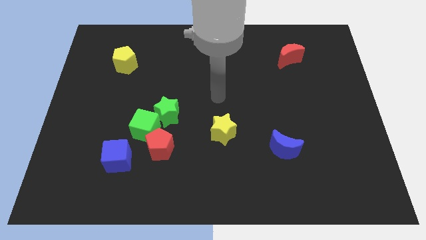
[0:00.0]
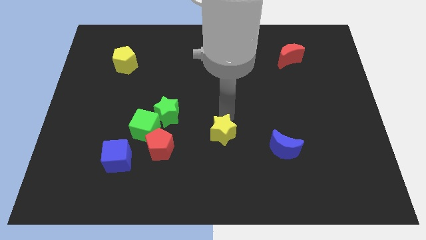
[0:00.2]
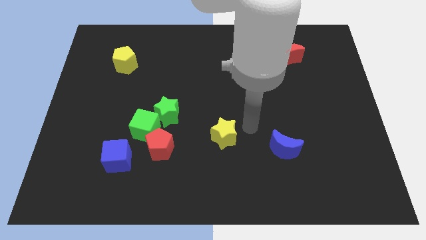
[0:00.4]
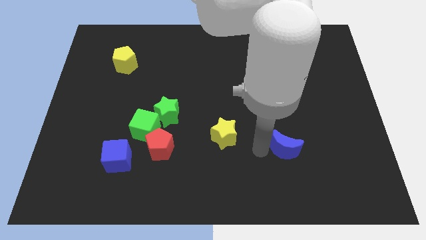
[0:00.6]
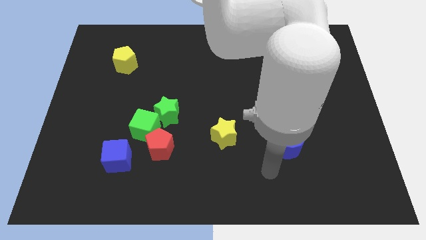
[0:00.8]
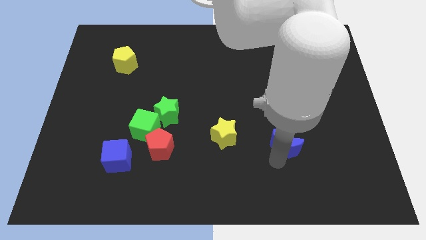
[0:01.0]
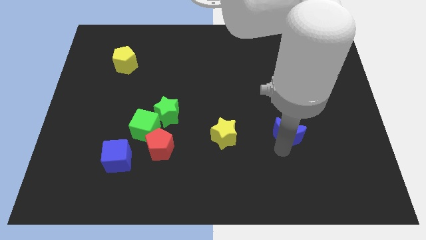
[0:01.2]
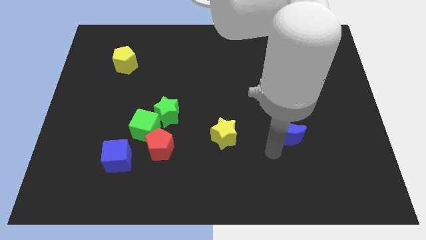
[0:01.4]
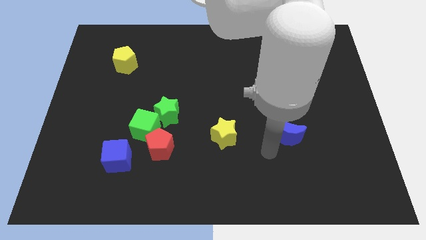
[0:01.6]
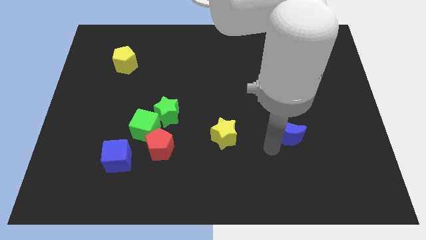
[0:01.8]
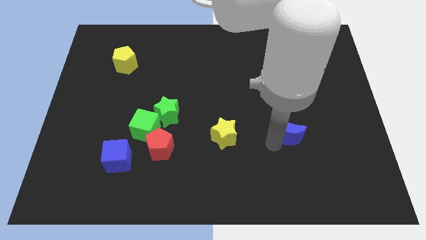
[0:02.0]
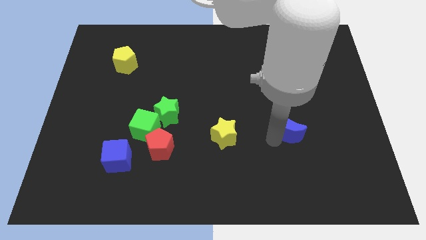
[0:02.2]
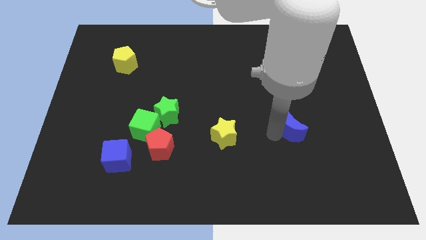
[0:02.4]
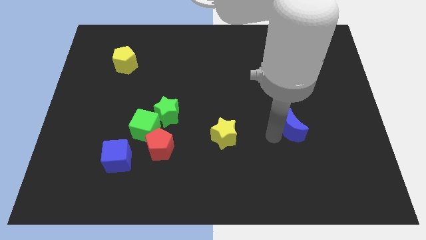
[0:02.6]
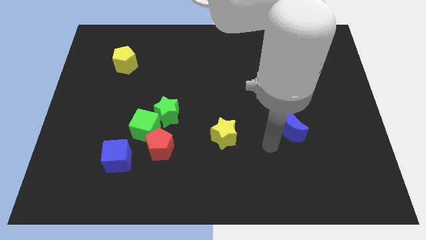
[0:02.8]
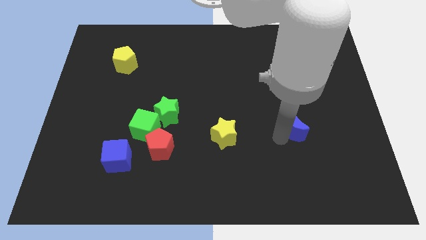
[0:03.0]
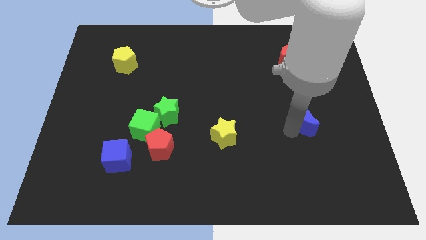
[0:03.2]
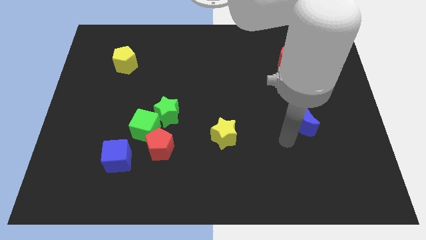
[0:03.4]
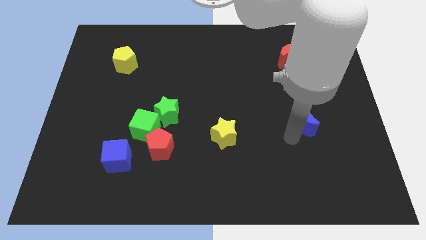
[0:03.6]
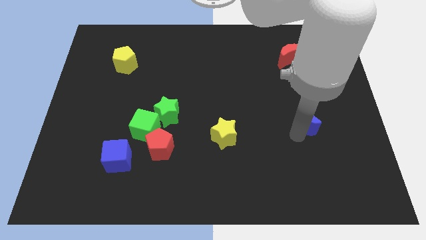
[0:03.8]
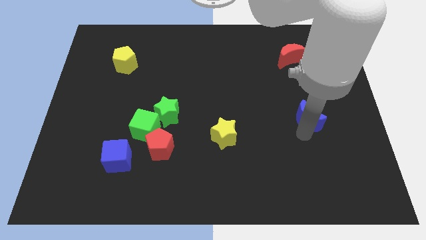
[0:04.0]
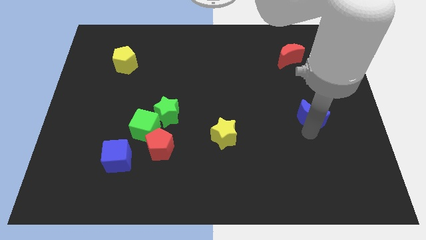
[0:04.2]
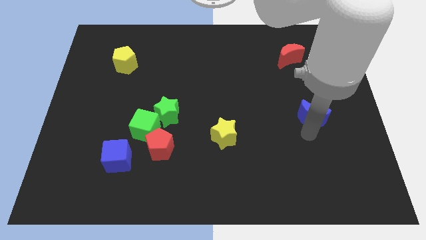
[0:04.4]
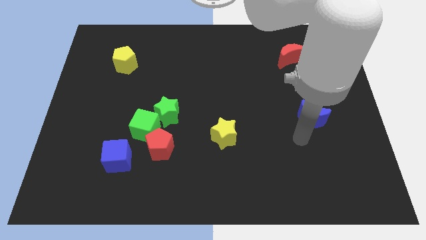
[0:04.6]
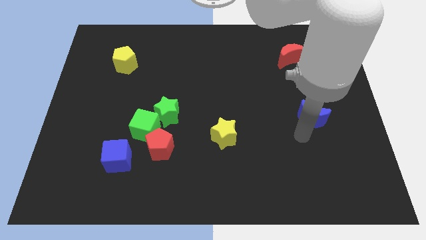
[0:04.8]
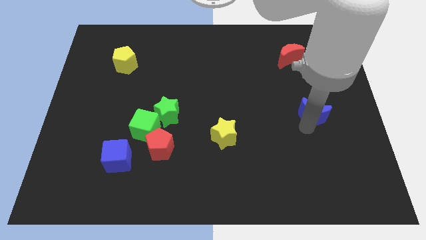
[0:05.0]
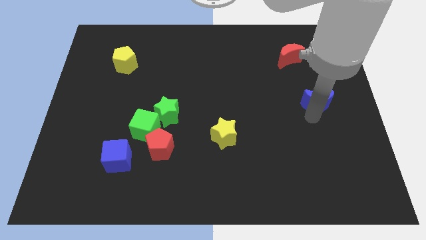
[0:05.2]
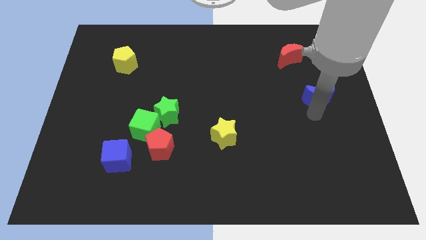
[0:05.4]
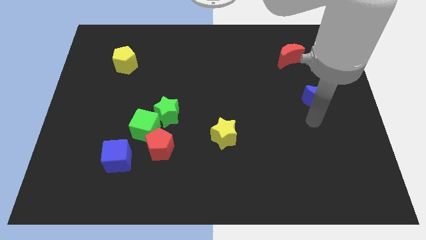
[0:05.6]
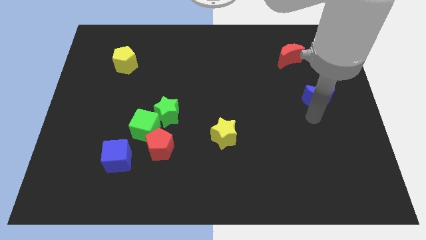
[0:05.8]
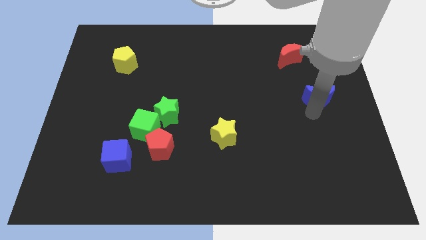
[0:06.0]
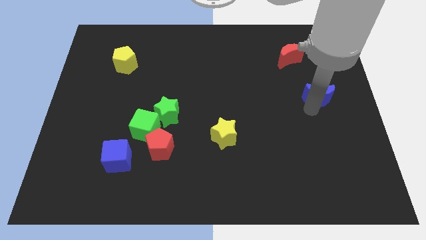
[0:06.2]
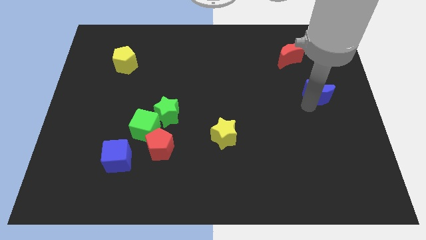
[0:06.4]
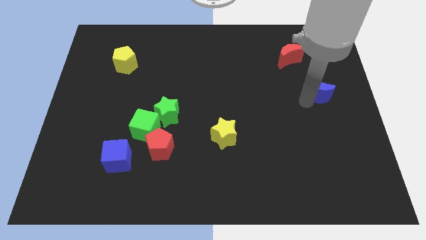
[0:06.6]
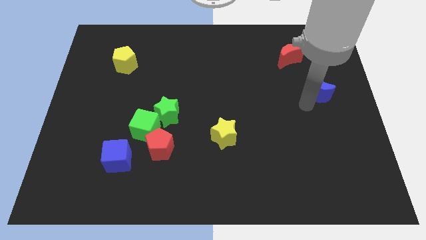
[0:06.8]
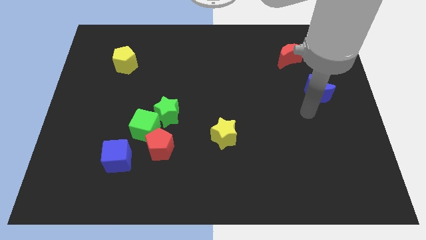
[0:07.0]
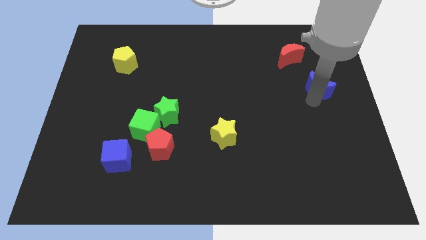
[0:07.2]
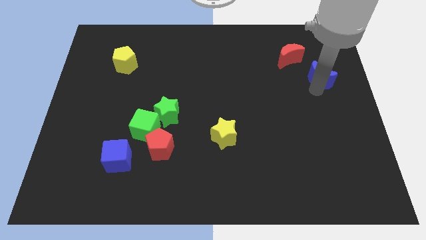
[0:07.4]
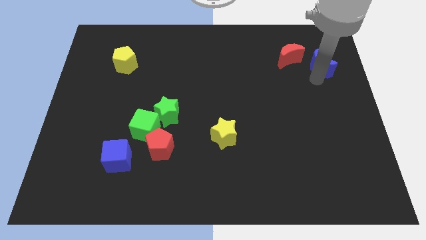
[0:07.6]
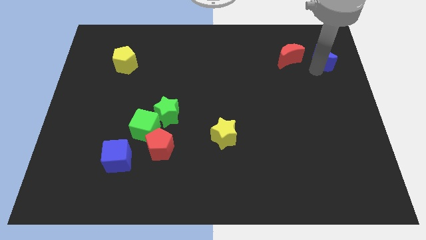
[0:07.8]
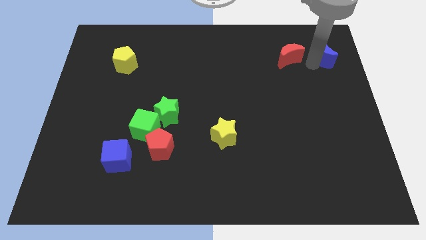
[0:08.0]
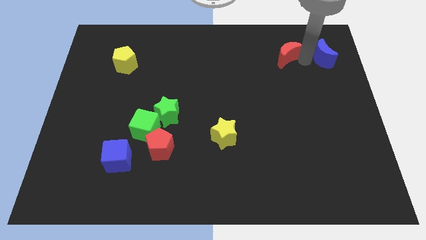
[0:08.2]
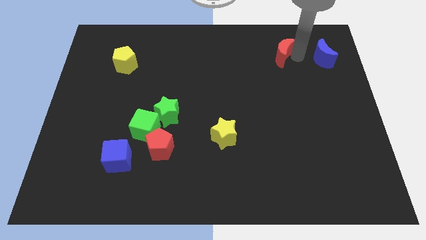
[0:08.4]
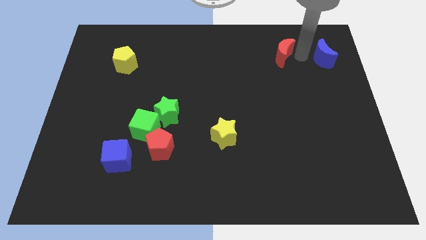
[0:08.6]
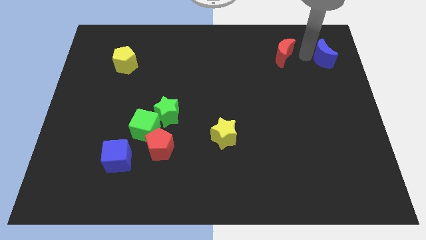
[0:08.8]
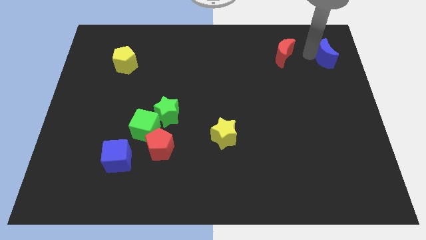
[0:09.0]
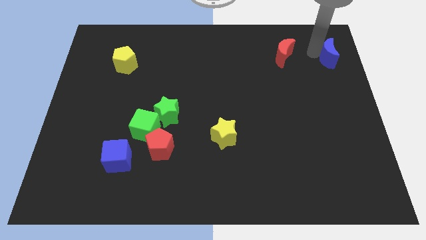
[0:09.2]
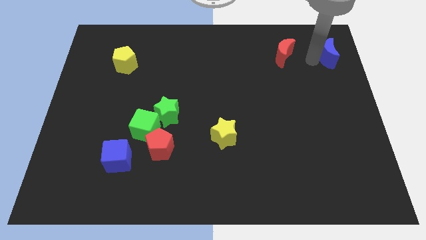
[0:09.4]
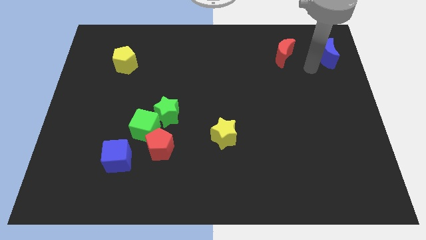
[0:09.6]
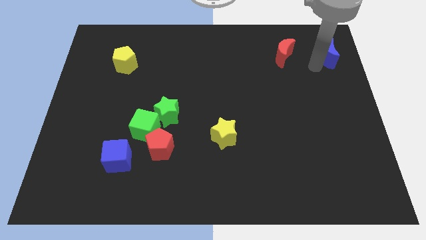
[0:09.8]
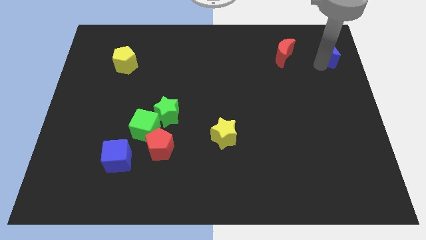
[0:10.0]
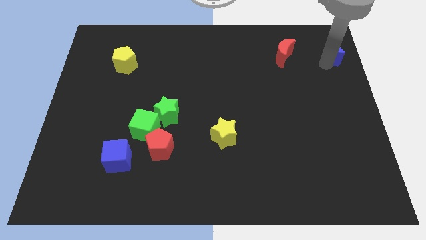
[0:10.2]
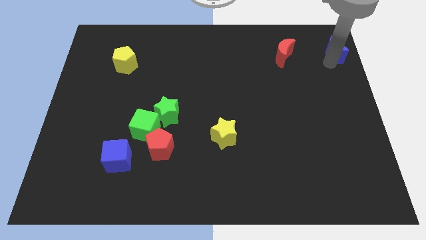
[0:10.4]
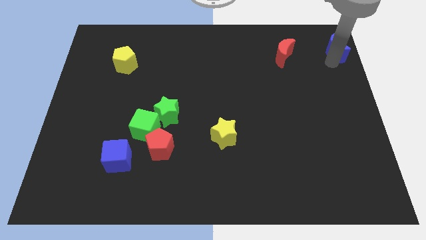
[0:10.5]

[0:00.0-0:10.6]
push the blue moon to the upper right corner
